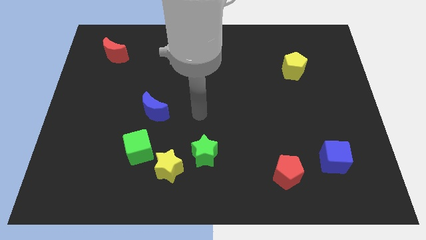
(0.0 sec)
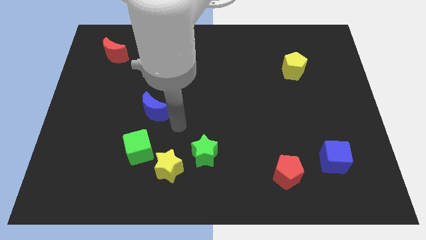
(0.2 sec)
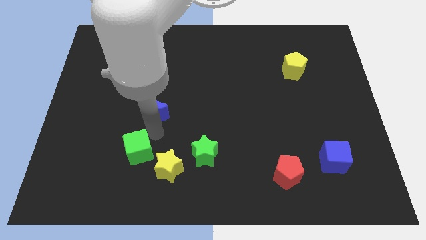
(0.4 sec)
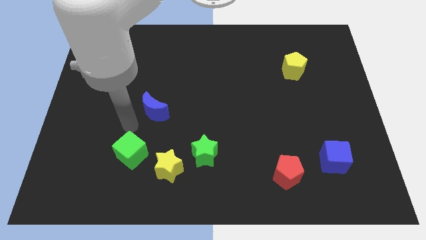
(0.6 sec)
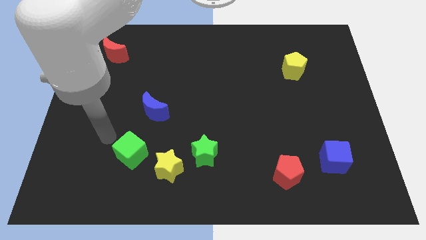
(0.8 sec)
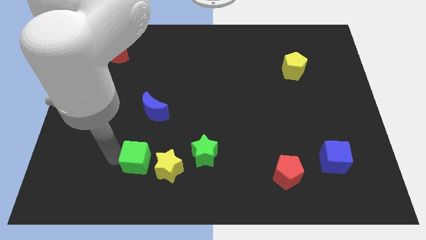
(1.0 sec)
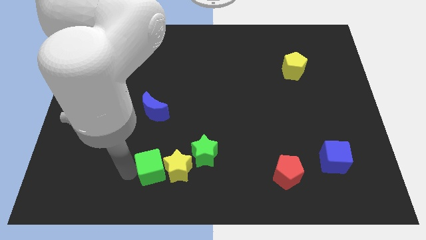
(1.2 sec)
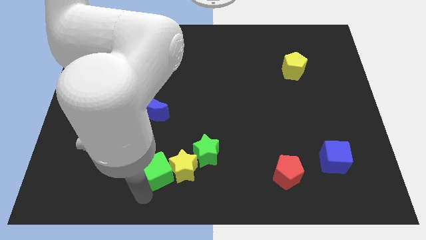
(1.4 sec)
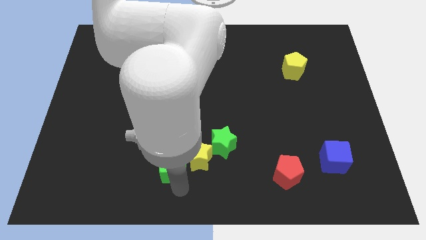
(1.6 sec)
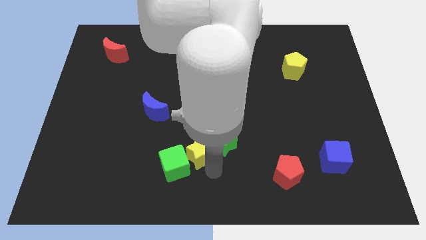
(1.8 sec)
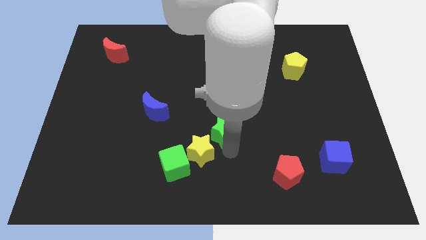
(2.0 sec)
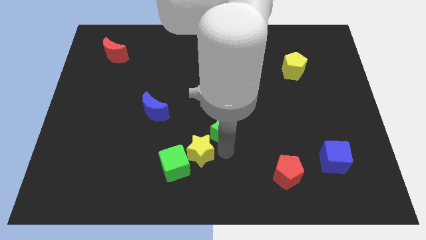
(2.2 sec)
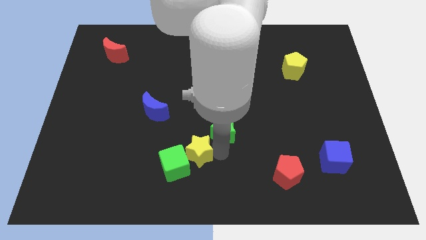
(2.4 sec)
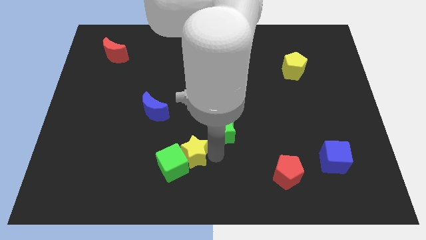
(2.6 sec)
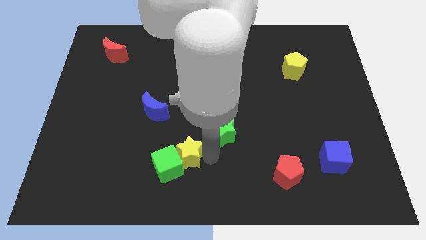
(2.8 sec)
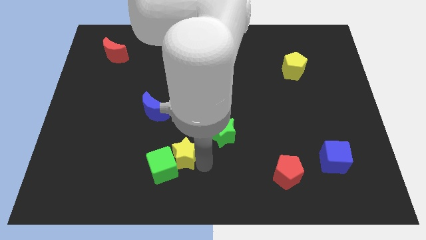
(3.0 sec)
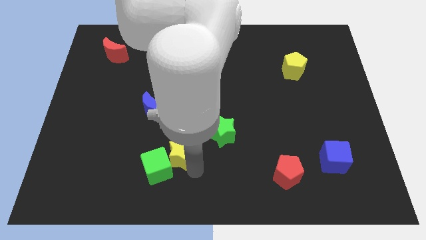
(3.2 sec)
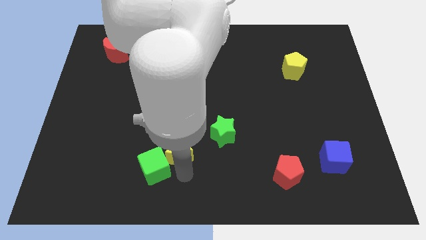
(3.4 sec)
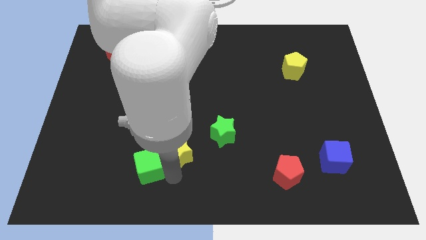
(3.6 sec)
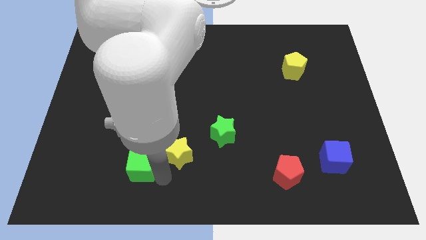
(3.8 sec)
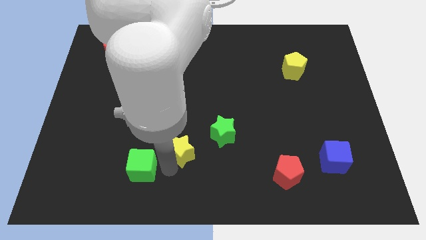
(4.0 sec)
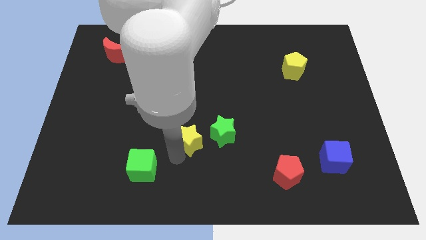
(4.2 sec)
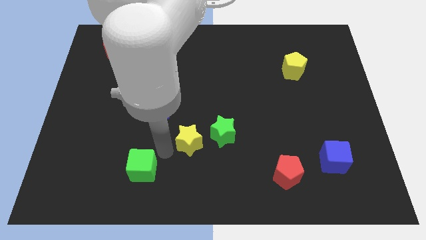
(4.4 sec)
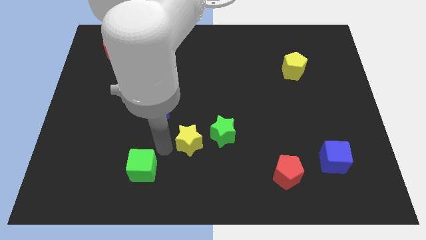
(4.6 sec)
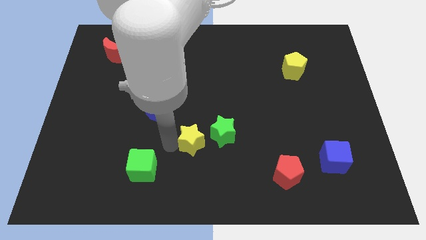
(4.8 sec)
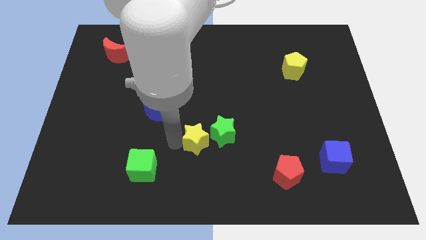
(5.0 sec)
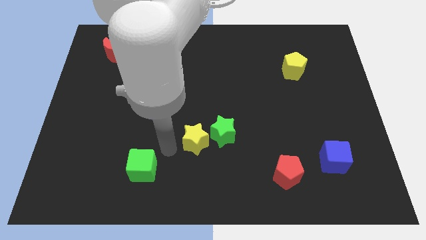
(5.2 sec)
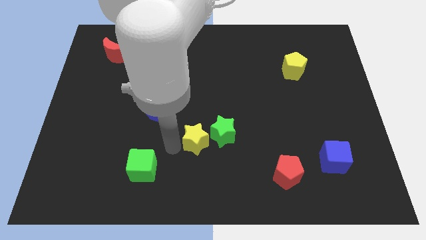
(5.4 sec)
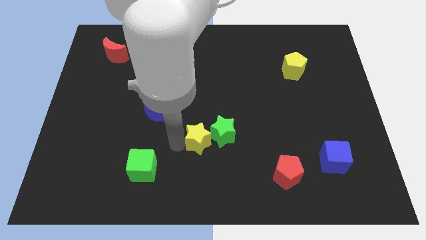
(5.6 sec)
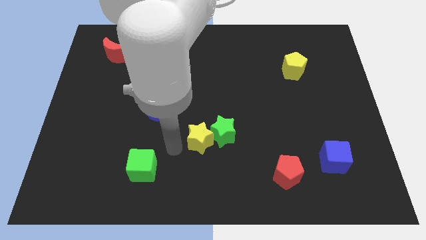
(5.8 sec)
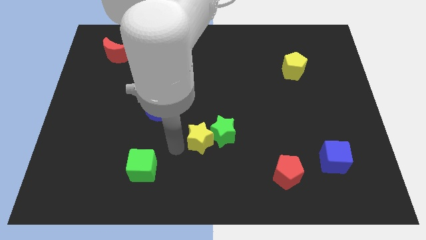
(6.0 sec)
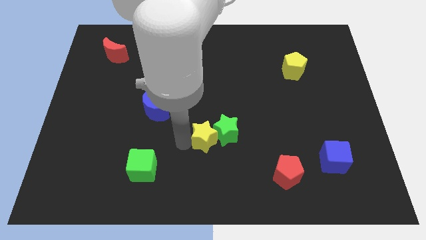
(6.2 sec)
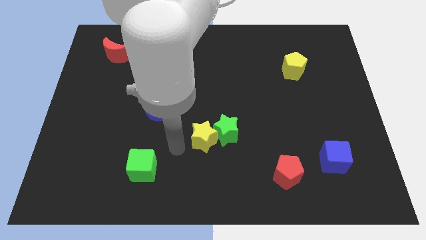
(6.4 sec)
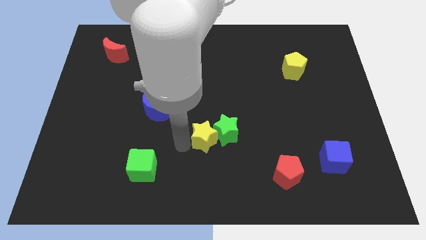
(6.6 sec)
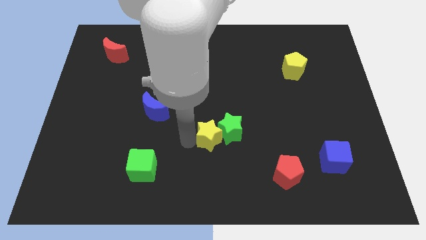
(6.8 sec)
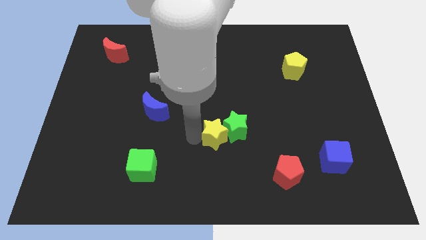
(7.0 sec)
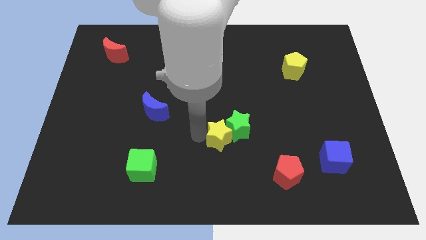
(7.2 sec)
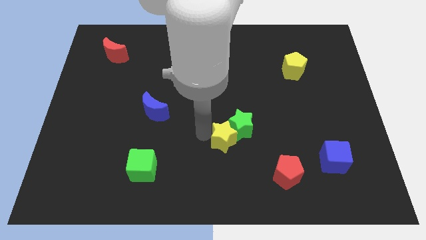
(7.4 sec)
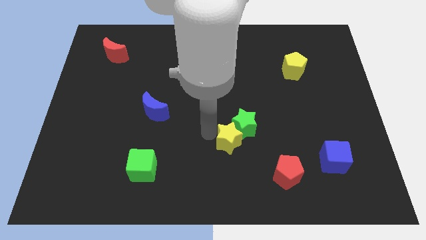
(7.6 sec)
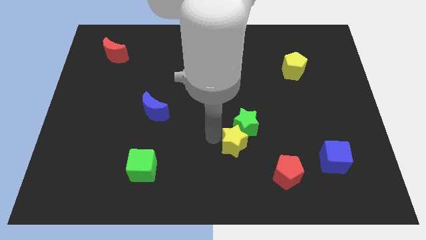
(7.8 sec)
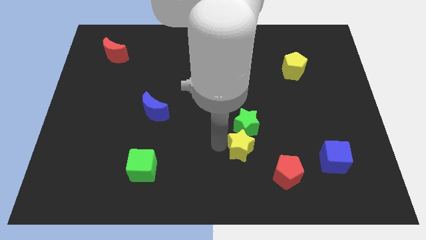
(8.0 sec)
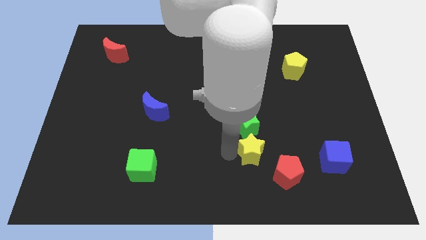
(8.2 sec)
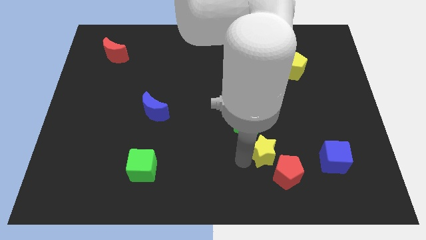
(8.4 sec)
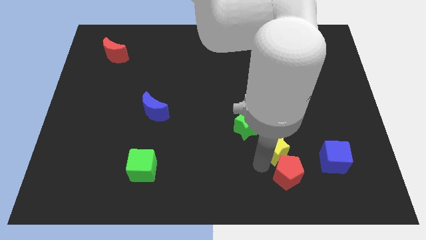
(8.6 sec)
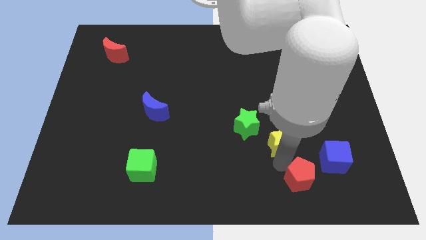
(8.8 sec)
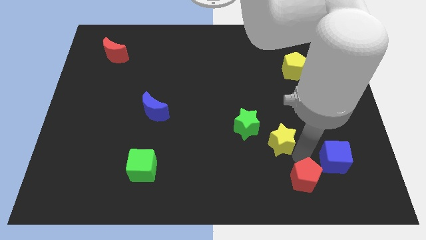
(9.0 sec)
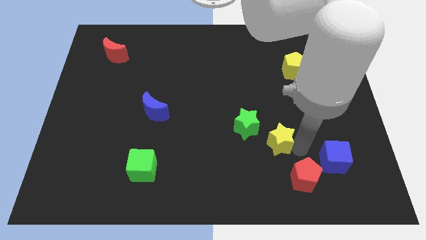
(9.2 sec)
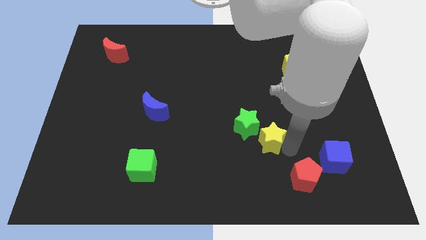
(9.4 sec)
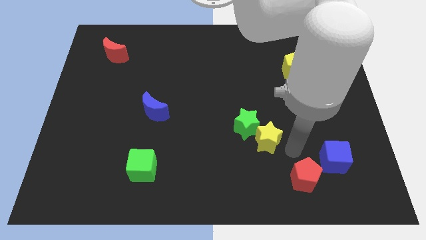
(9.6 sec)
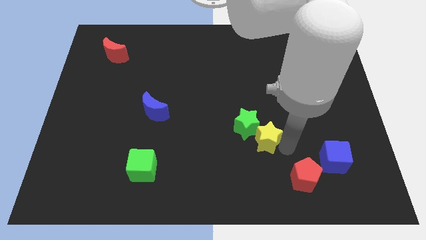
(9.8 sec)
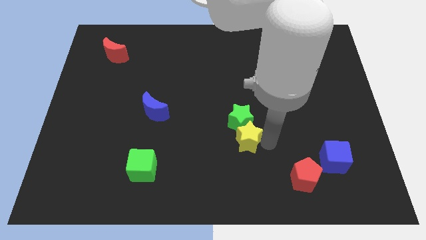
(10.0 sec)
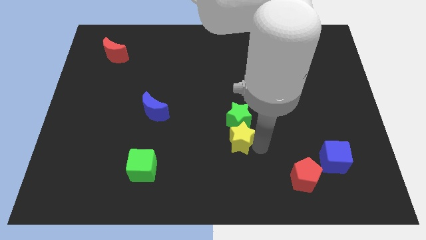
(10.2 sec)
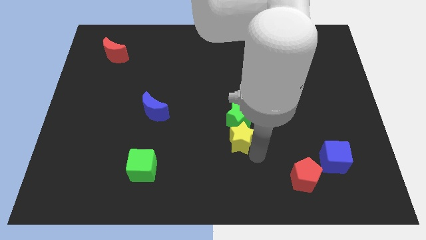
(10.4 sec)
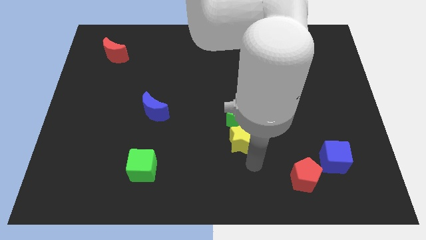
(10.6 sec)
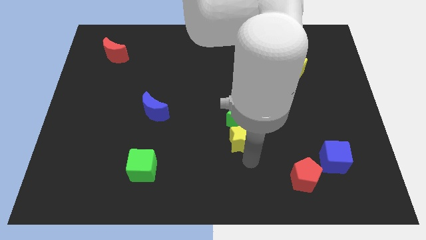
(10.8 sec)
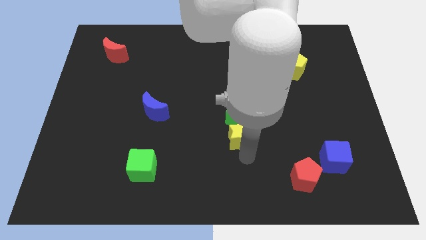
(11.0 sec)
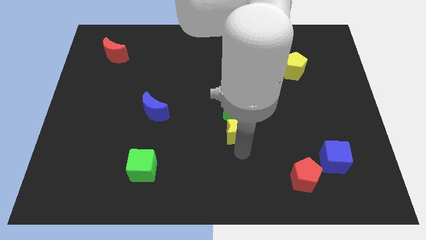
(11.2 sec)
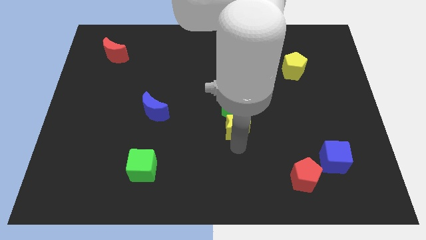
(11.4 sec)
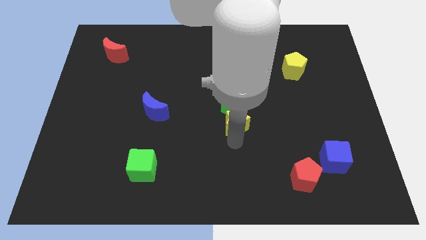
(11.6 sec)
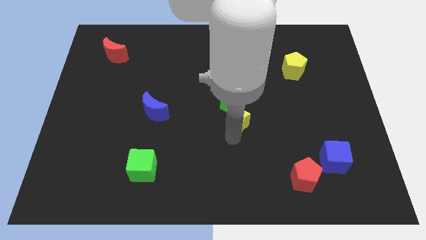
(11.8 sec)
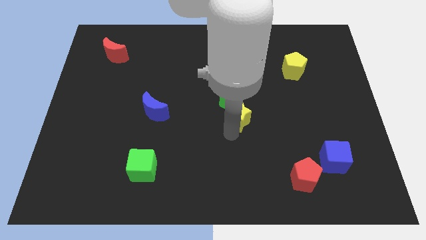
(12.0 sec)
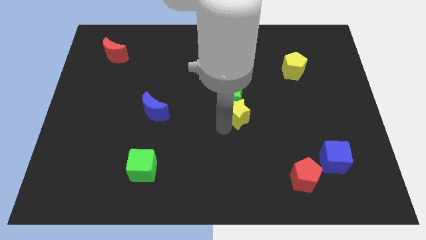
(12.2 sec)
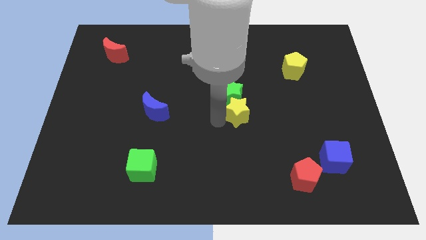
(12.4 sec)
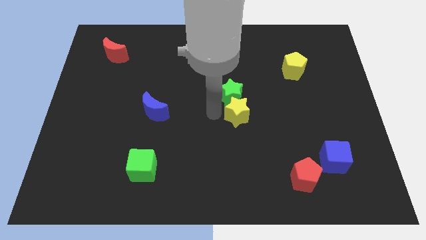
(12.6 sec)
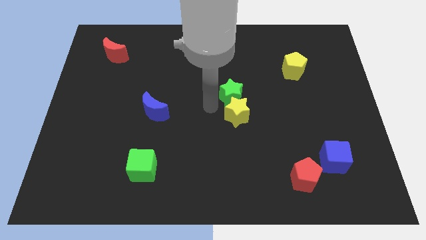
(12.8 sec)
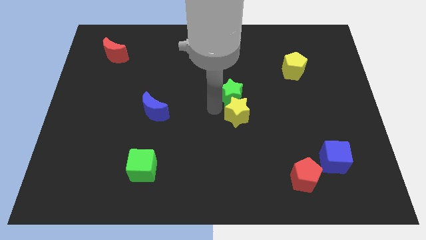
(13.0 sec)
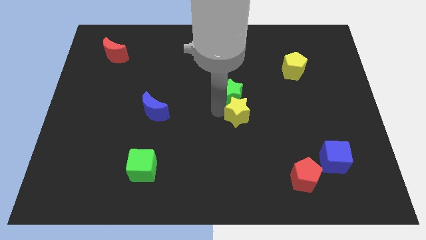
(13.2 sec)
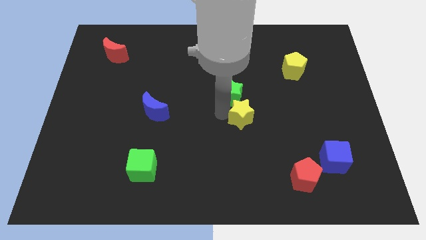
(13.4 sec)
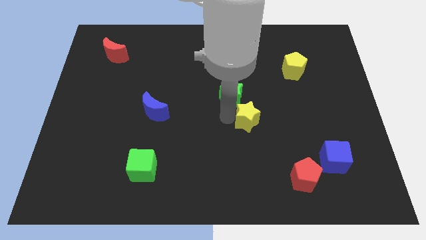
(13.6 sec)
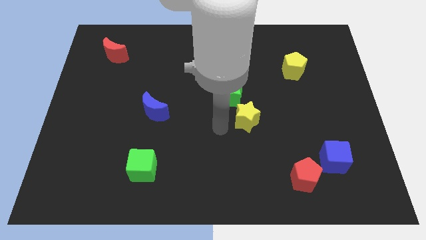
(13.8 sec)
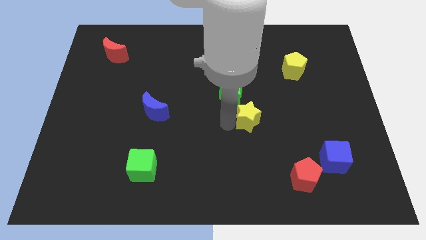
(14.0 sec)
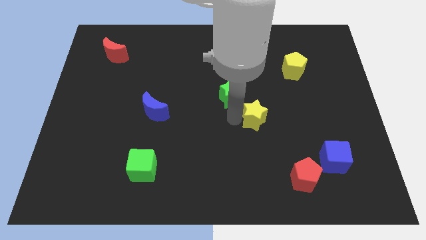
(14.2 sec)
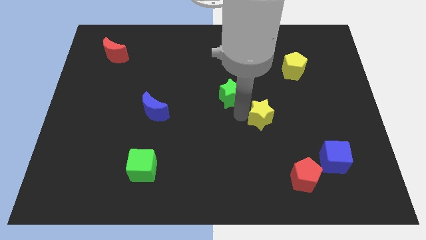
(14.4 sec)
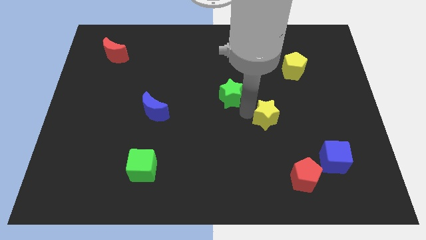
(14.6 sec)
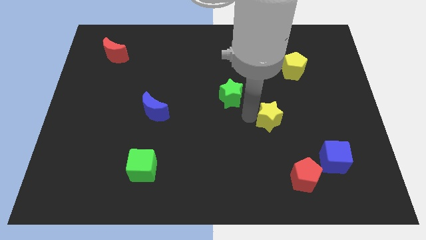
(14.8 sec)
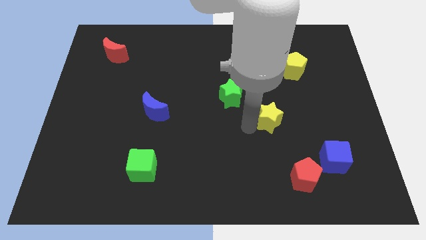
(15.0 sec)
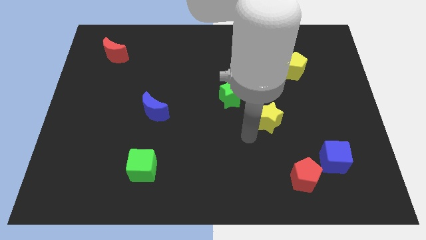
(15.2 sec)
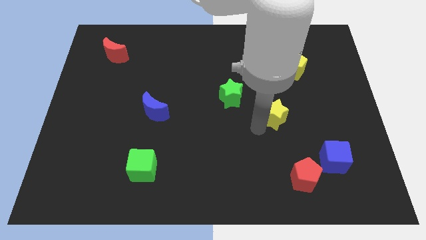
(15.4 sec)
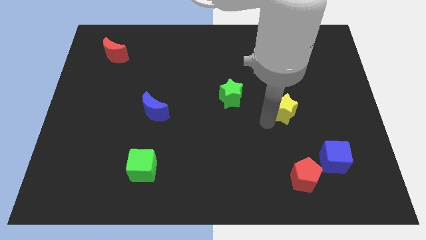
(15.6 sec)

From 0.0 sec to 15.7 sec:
push the yellow star to the bottom of the yellow pentagon
